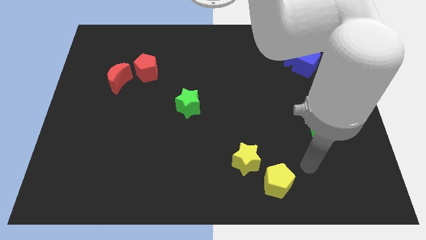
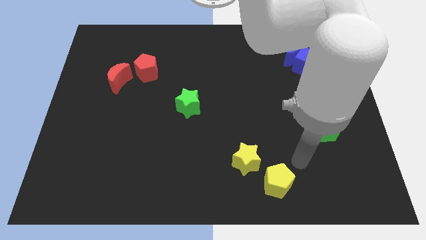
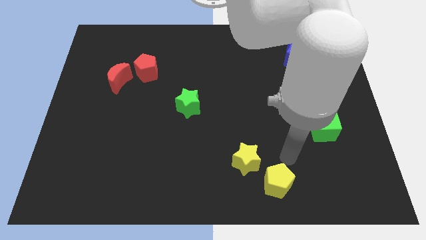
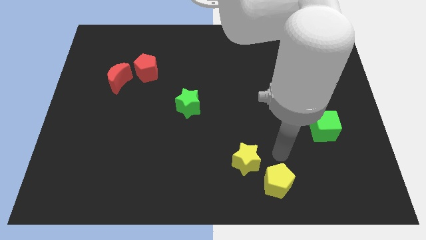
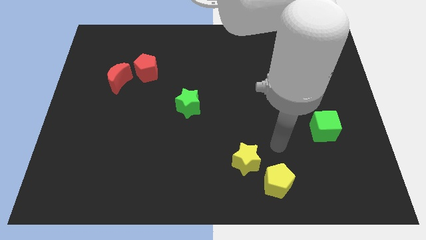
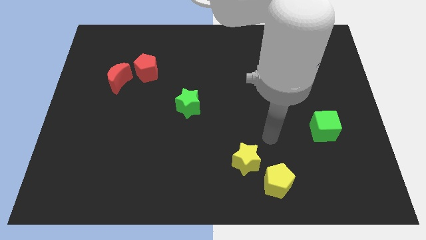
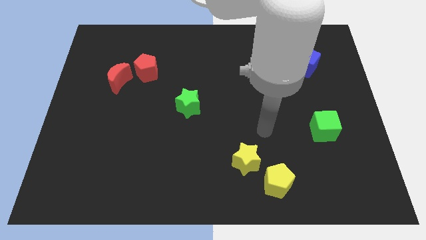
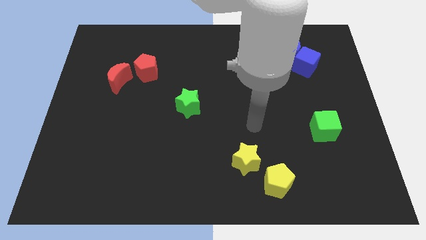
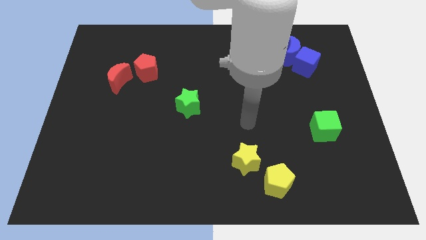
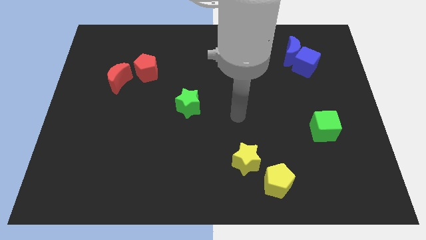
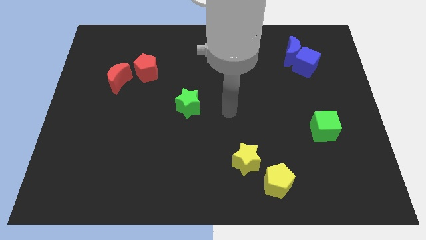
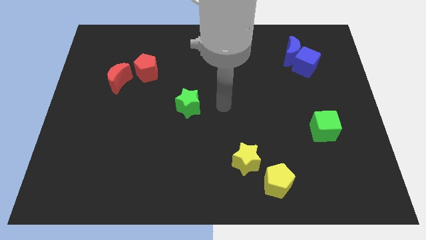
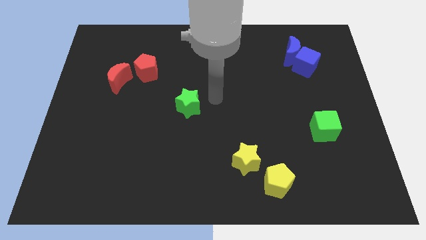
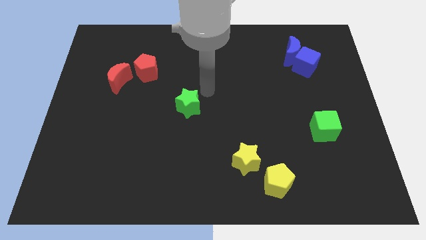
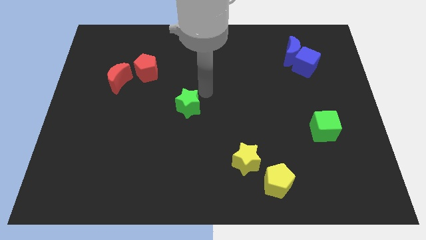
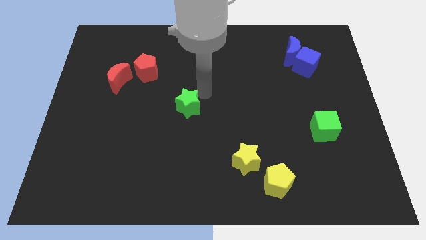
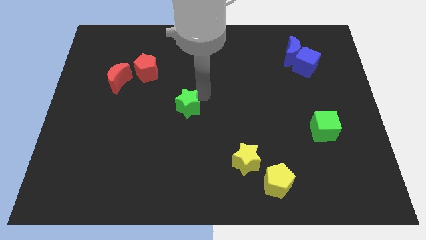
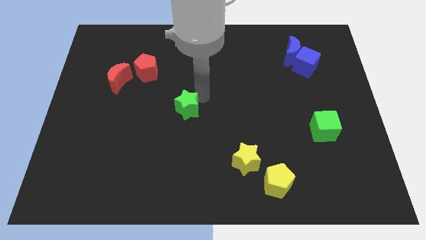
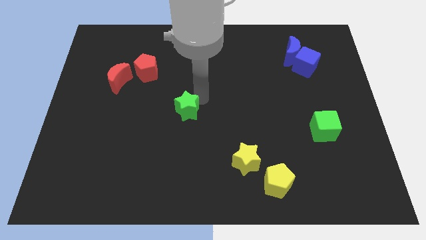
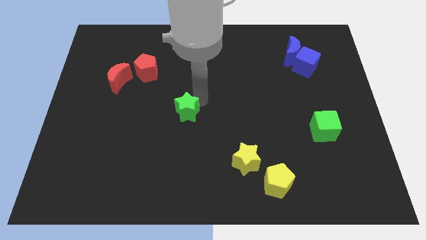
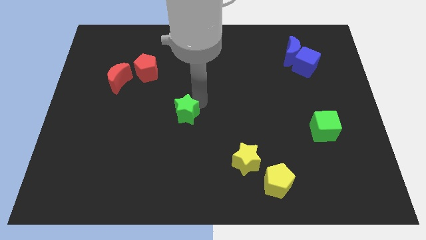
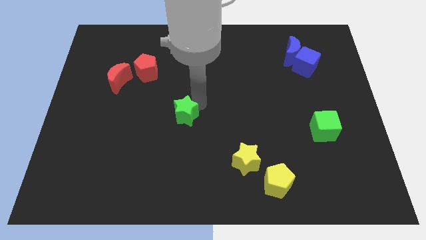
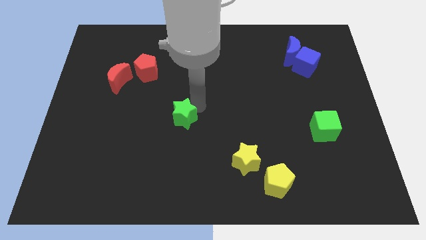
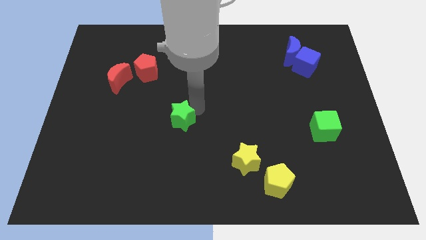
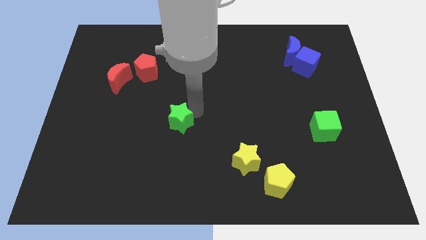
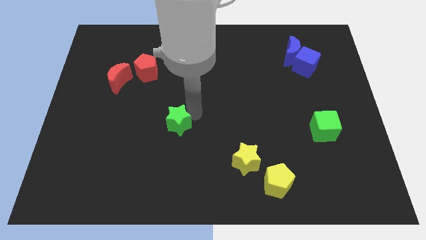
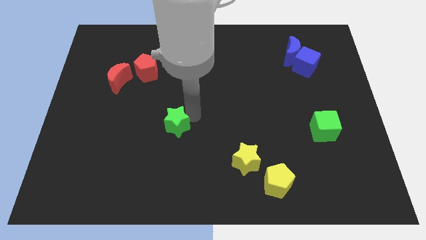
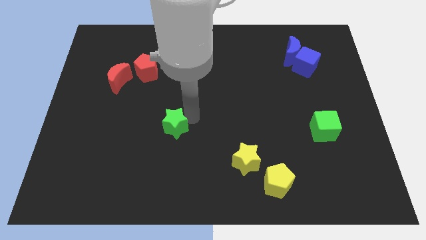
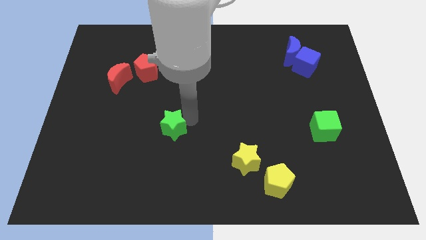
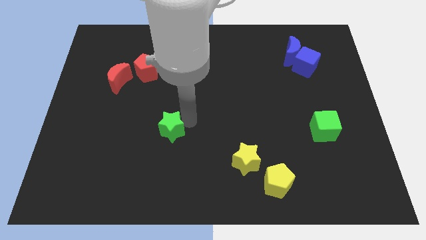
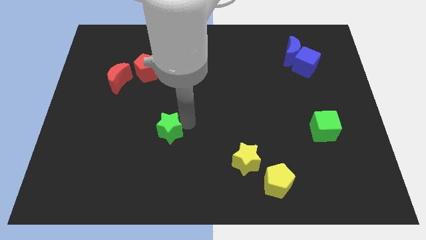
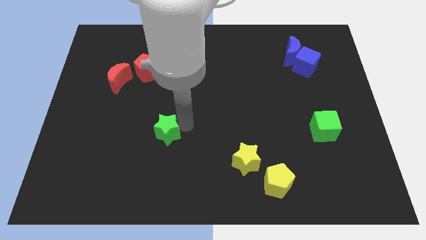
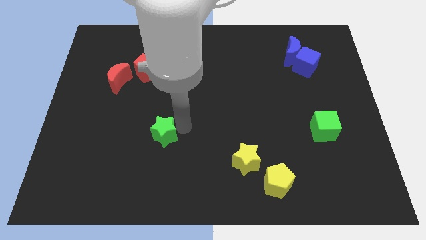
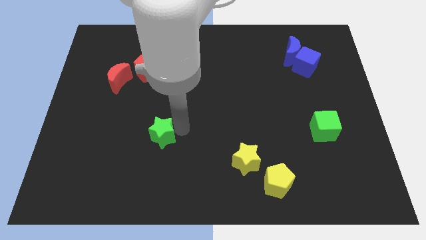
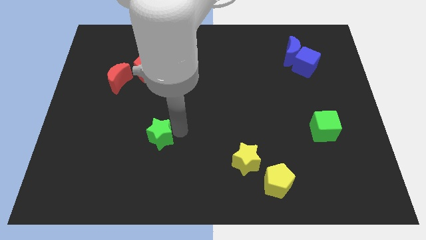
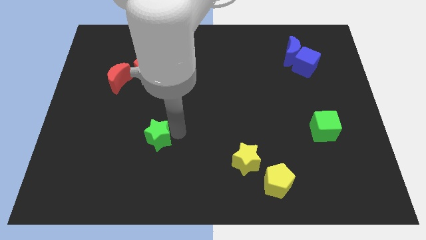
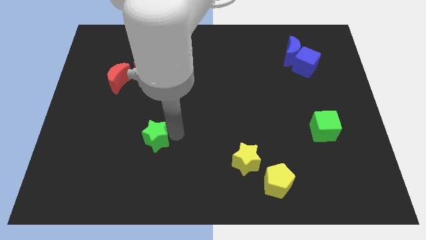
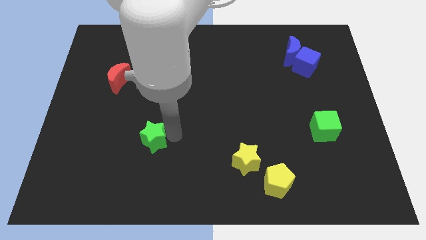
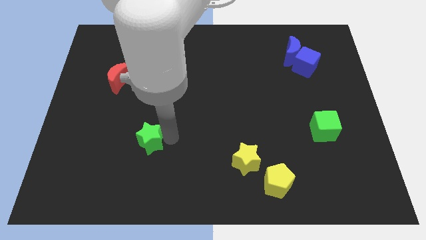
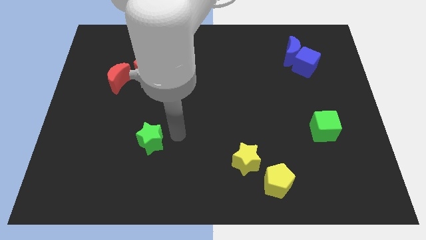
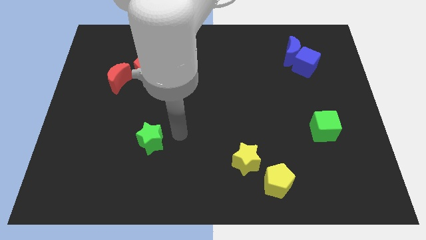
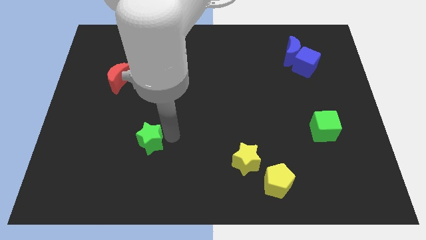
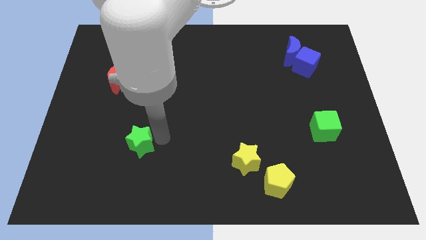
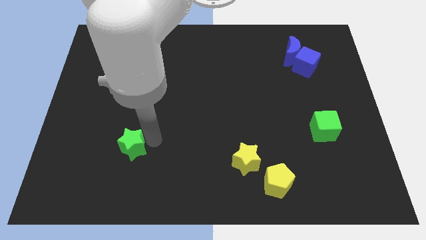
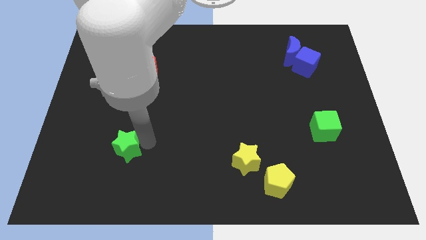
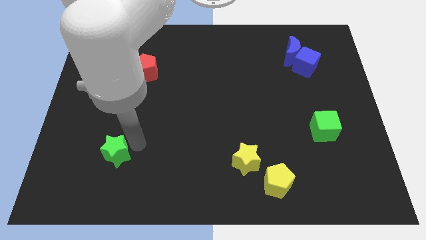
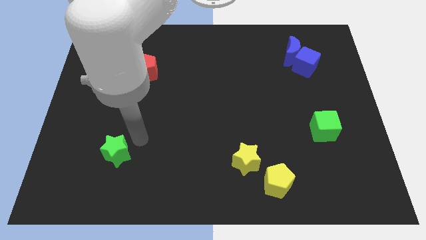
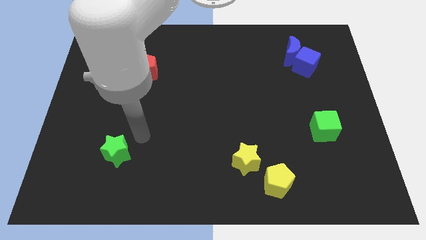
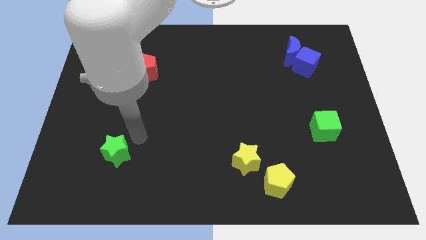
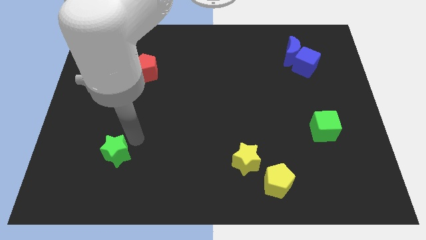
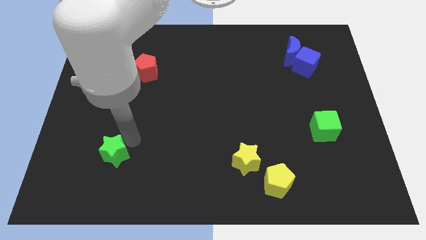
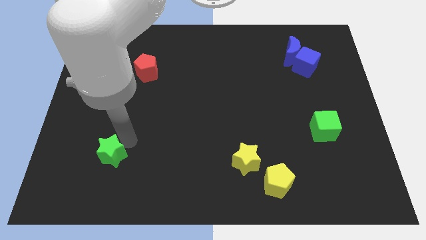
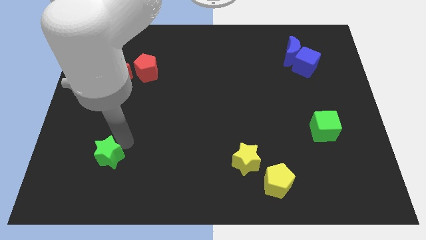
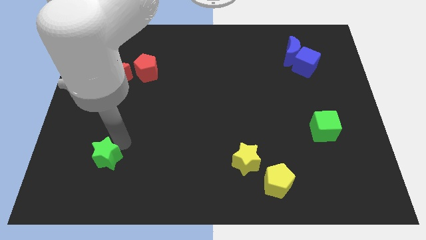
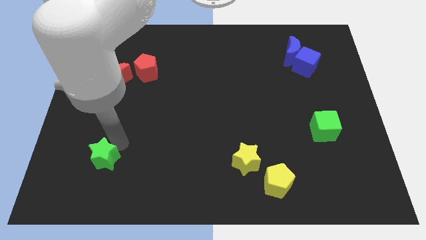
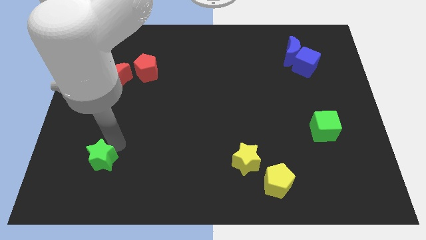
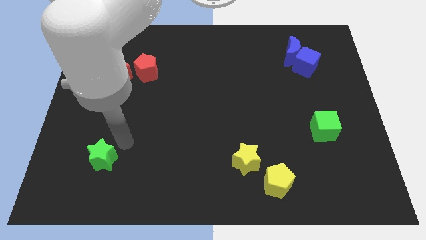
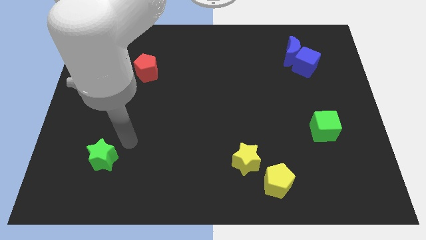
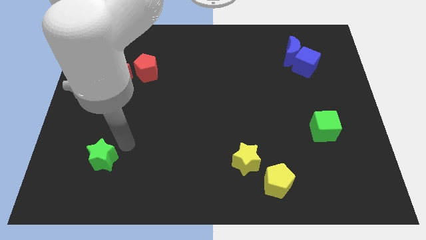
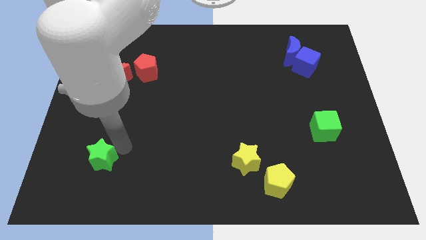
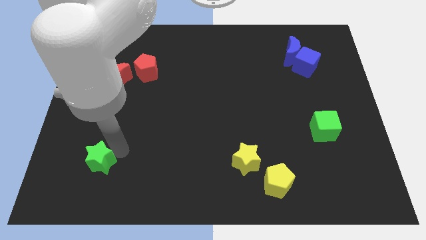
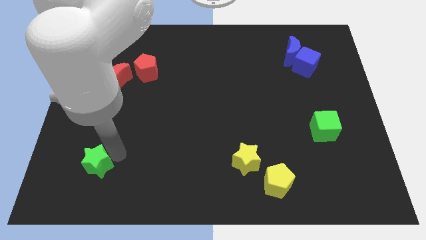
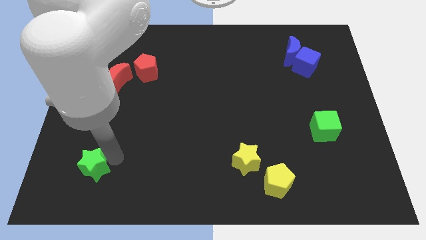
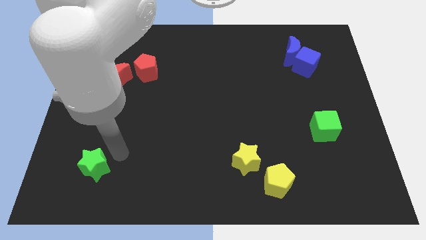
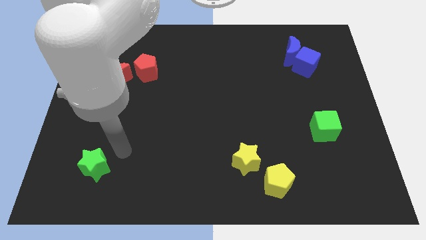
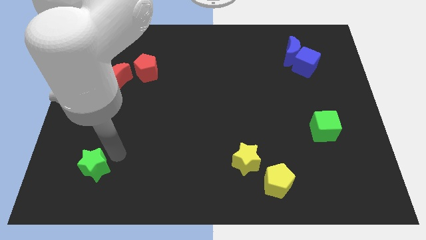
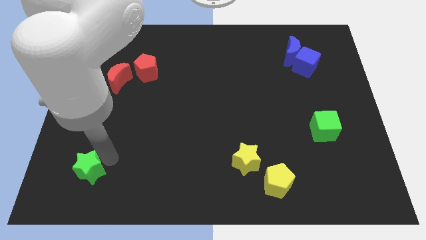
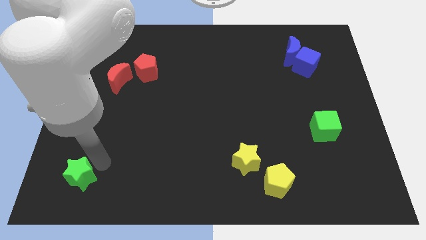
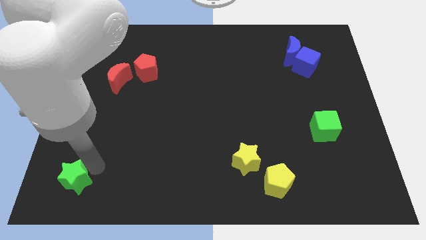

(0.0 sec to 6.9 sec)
put the green star to the bottom left
